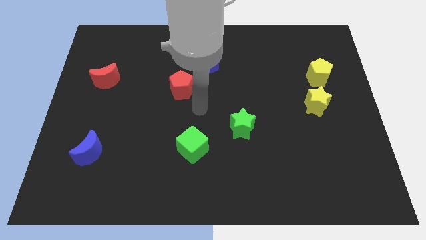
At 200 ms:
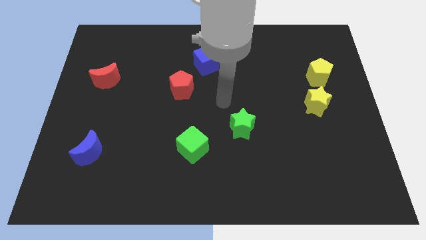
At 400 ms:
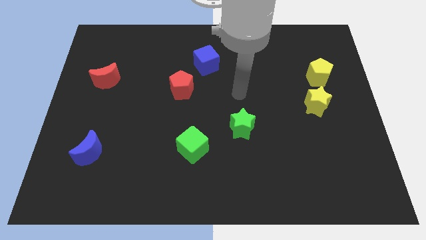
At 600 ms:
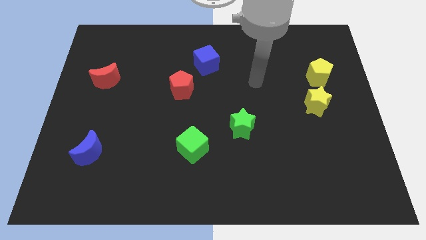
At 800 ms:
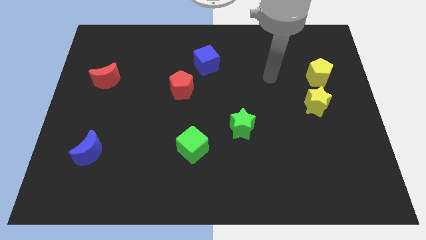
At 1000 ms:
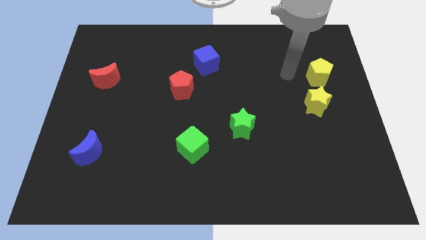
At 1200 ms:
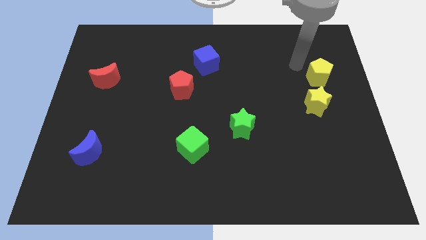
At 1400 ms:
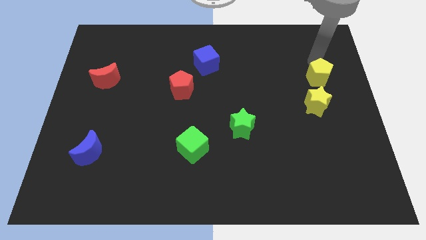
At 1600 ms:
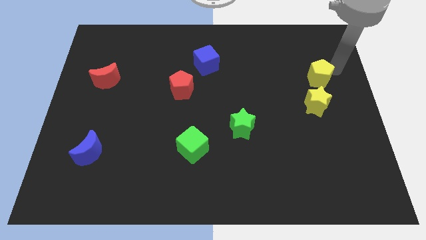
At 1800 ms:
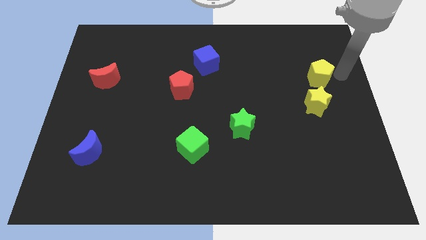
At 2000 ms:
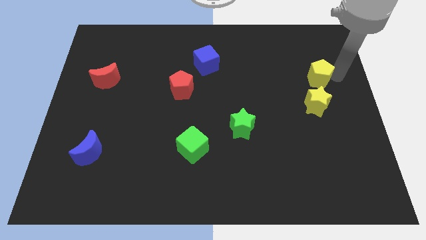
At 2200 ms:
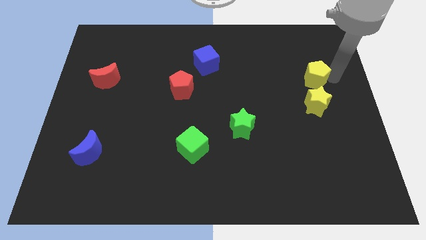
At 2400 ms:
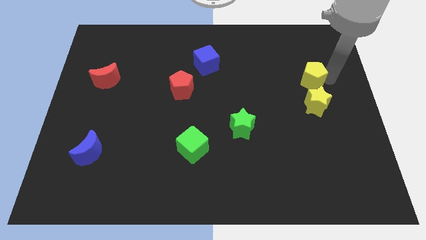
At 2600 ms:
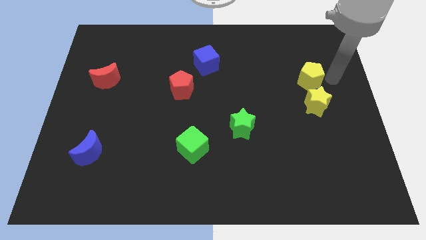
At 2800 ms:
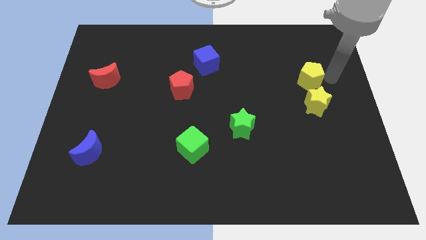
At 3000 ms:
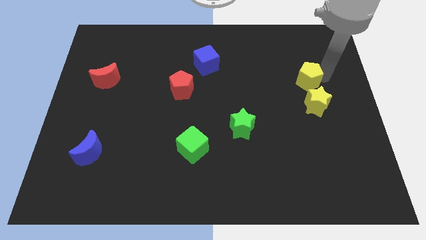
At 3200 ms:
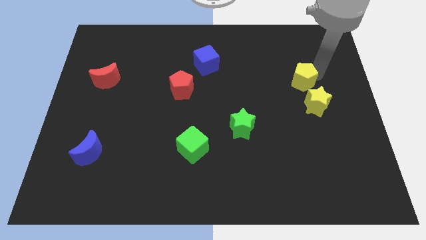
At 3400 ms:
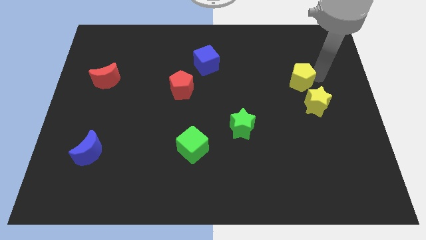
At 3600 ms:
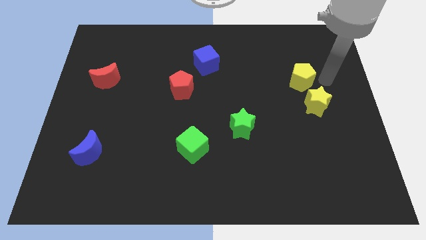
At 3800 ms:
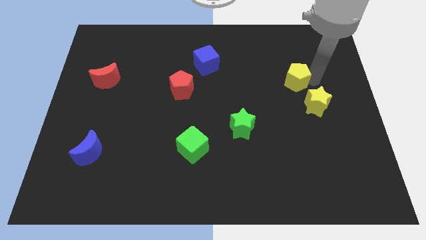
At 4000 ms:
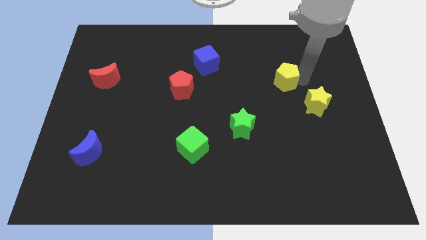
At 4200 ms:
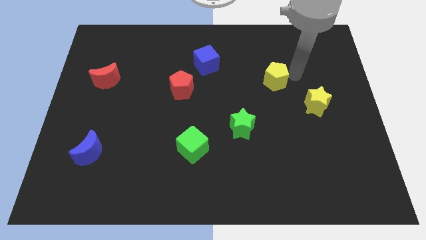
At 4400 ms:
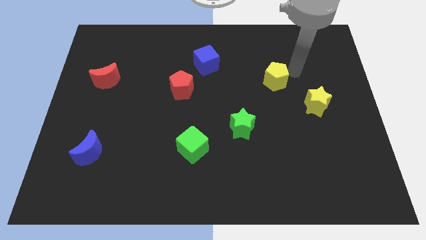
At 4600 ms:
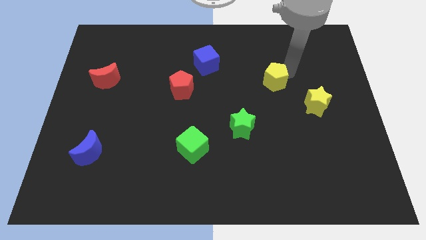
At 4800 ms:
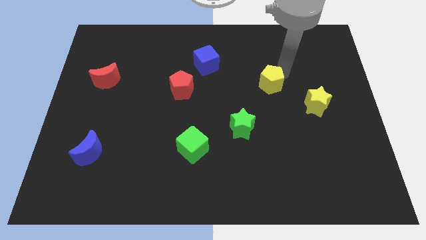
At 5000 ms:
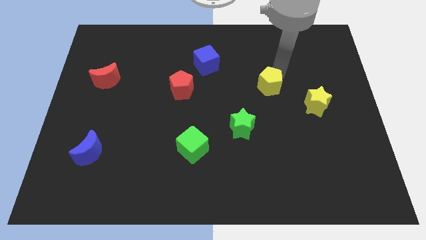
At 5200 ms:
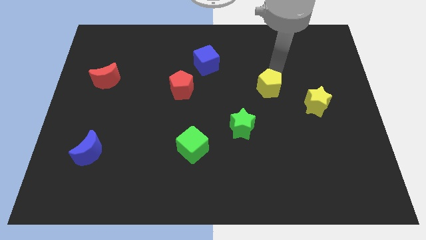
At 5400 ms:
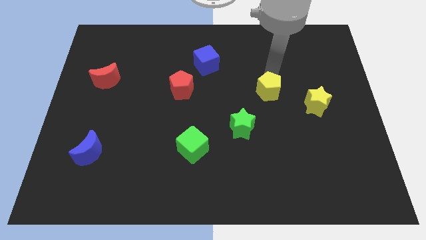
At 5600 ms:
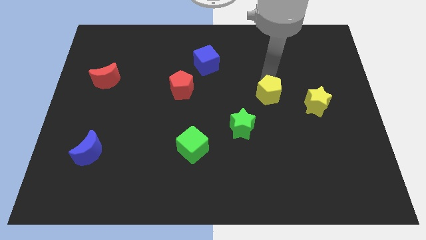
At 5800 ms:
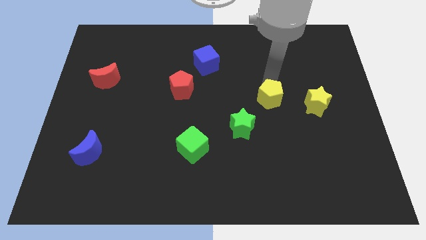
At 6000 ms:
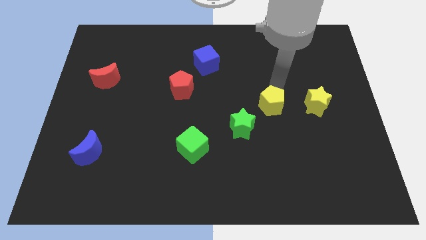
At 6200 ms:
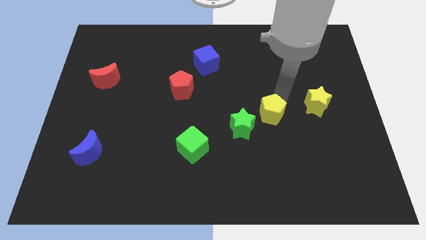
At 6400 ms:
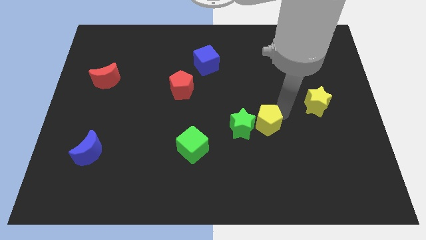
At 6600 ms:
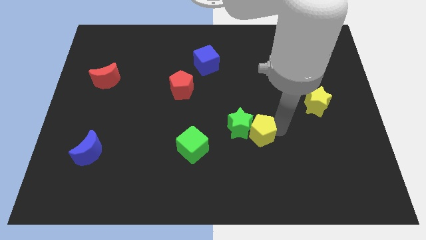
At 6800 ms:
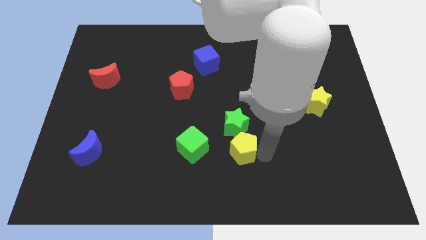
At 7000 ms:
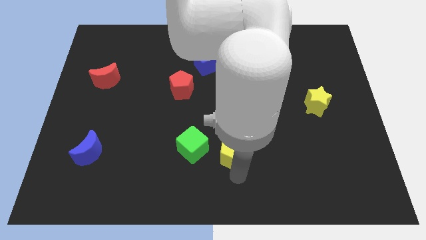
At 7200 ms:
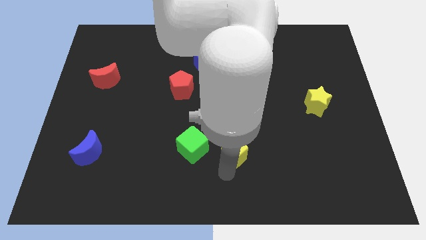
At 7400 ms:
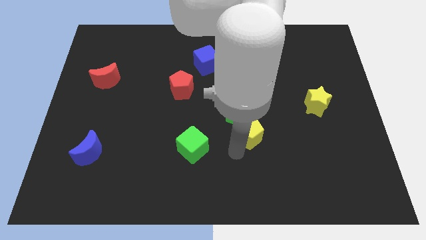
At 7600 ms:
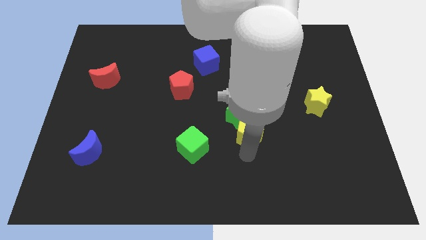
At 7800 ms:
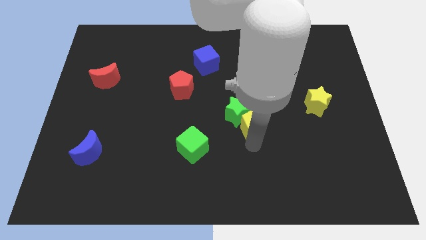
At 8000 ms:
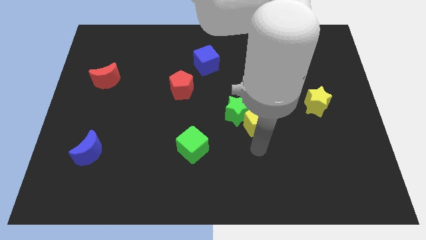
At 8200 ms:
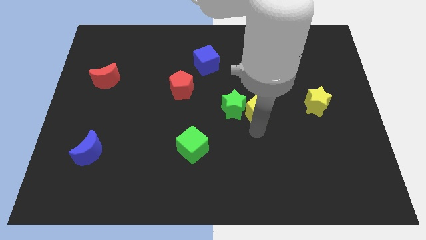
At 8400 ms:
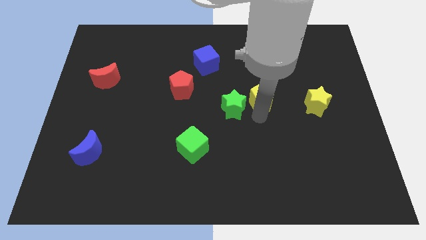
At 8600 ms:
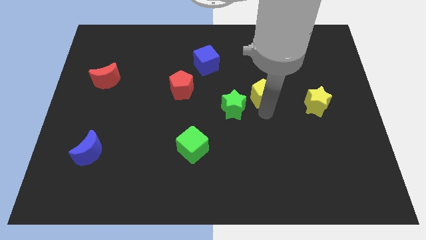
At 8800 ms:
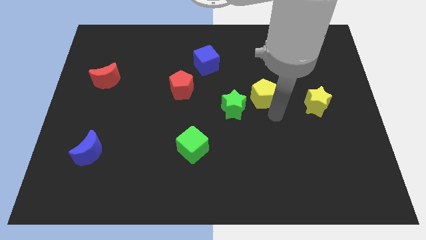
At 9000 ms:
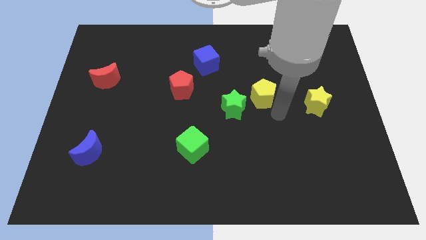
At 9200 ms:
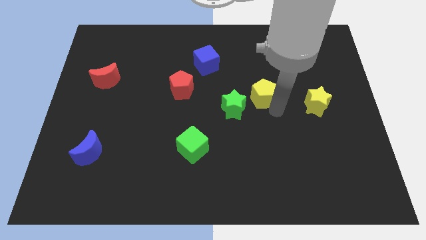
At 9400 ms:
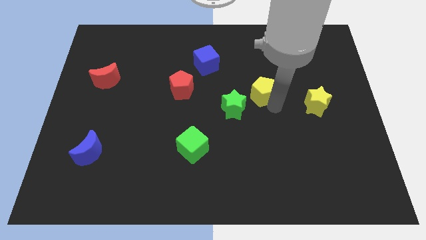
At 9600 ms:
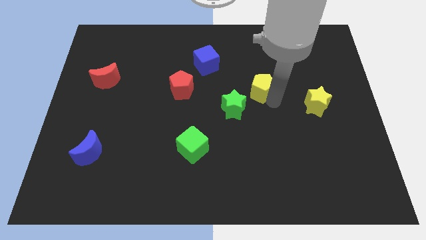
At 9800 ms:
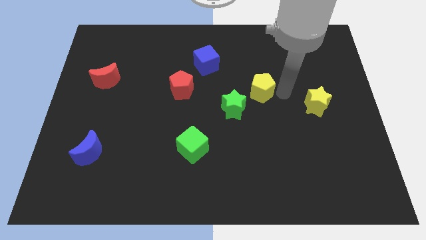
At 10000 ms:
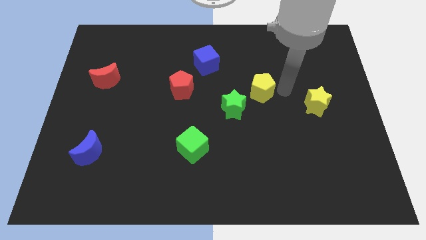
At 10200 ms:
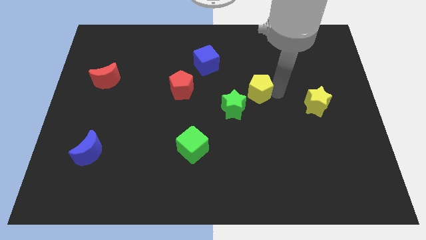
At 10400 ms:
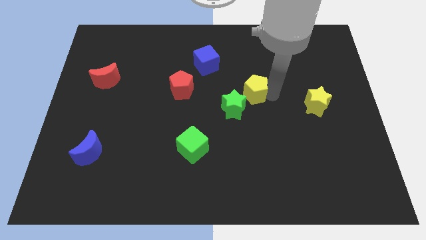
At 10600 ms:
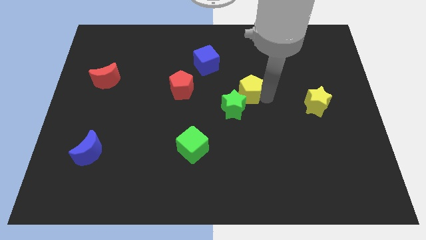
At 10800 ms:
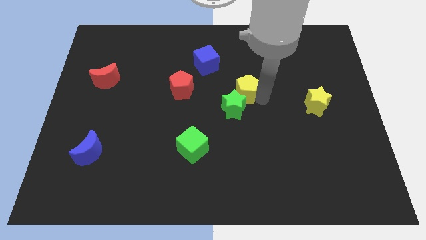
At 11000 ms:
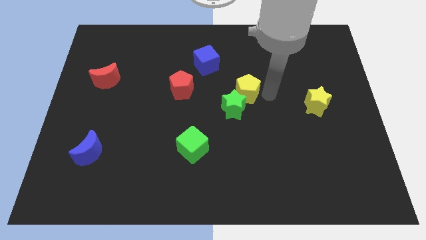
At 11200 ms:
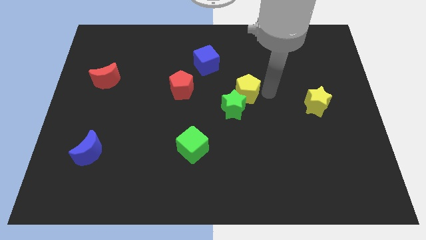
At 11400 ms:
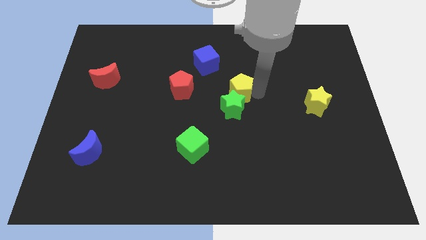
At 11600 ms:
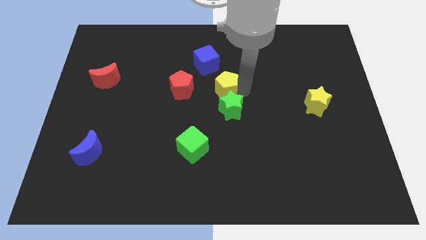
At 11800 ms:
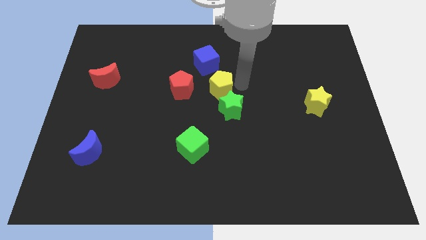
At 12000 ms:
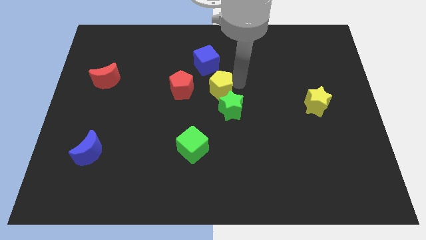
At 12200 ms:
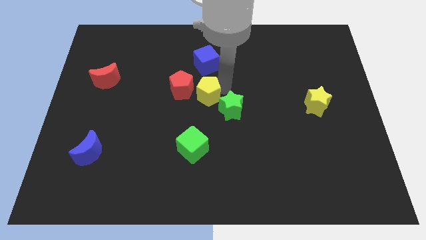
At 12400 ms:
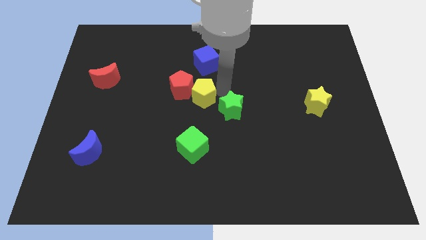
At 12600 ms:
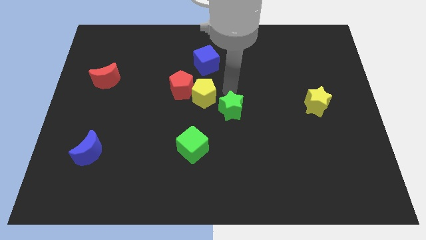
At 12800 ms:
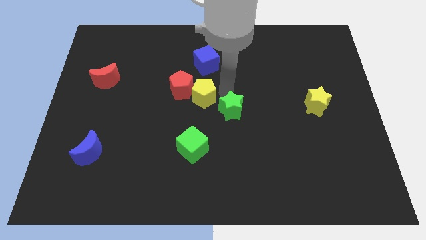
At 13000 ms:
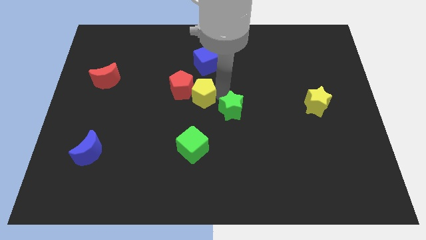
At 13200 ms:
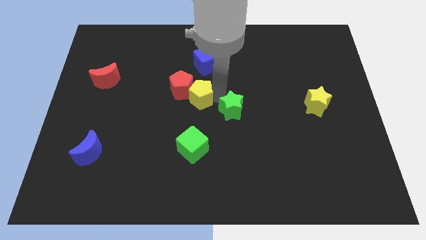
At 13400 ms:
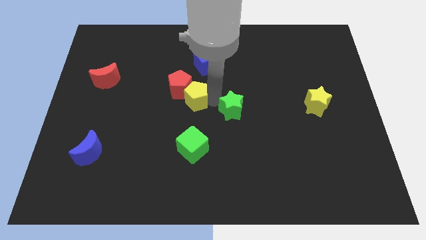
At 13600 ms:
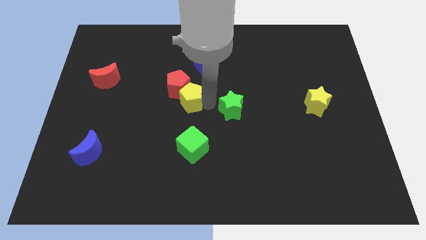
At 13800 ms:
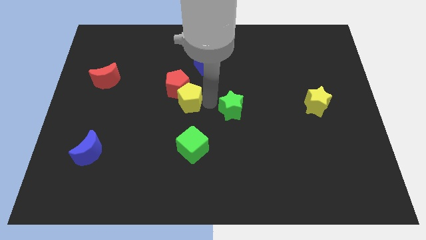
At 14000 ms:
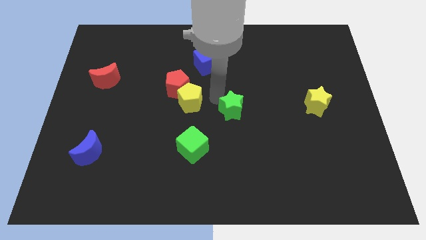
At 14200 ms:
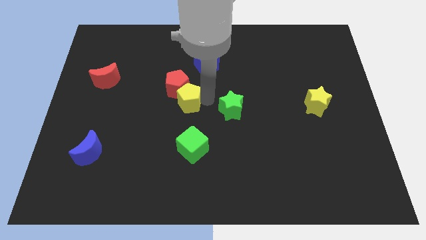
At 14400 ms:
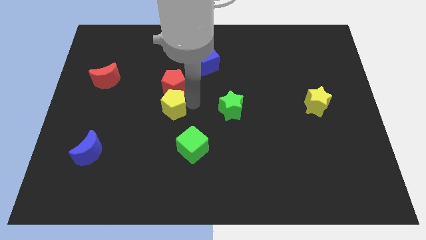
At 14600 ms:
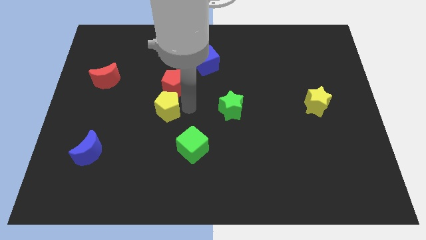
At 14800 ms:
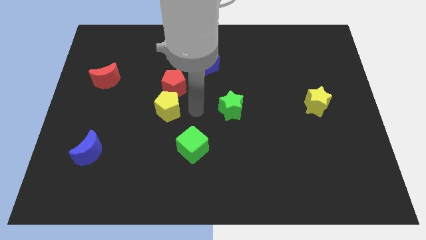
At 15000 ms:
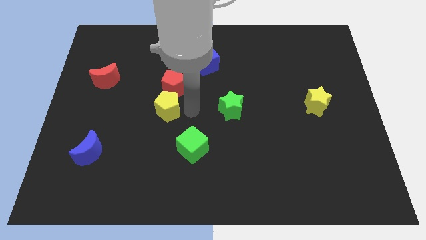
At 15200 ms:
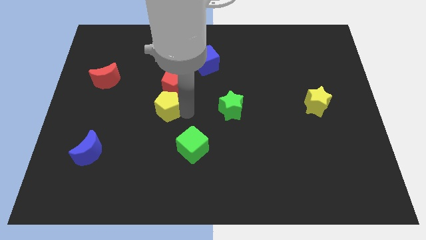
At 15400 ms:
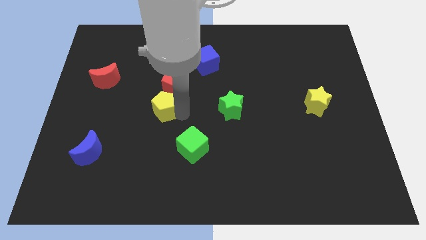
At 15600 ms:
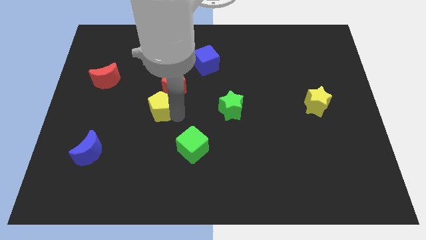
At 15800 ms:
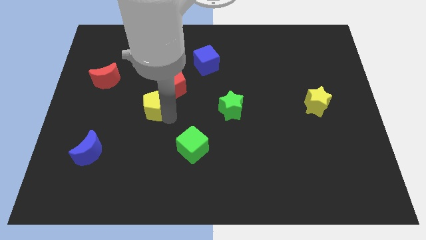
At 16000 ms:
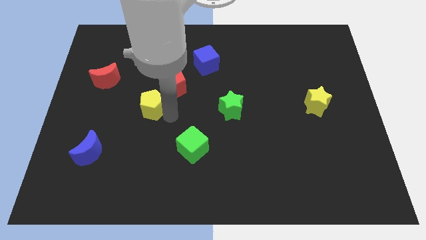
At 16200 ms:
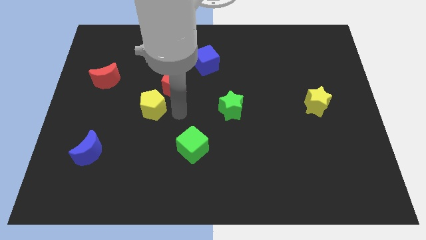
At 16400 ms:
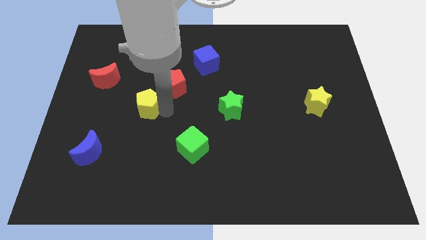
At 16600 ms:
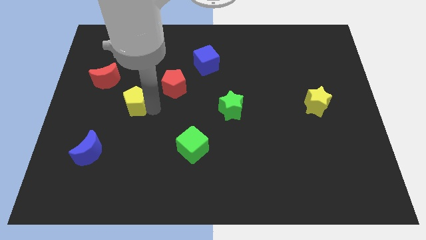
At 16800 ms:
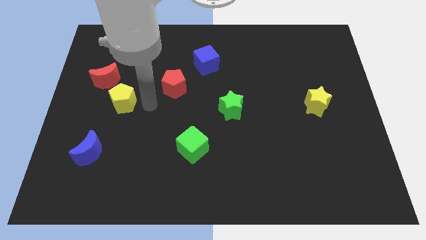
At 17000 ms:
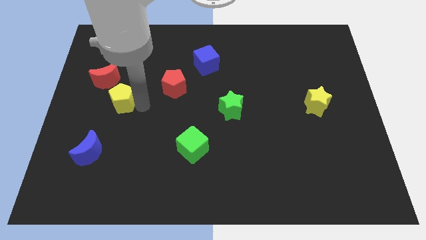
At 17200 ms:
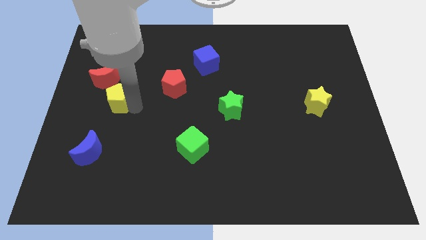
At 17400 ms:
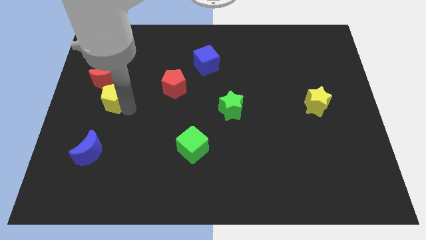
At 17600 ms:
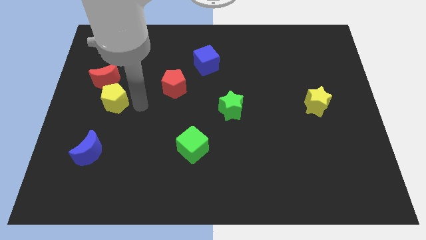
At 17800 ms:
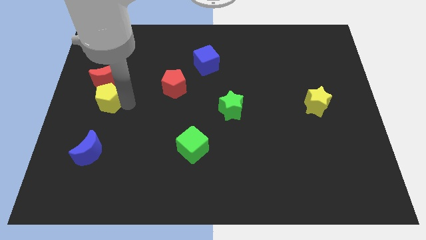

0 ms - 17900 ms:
slide the yellow pentagon to the left side of the board
